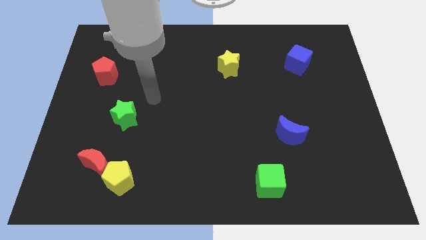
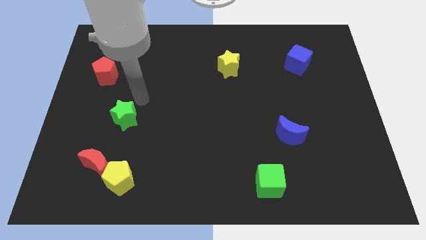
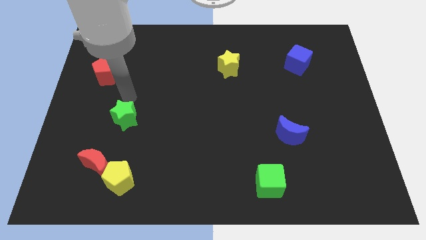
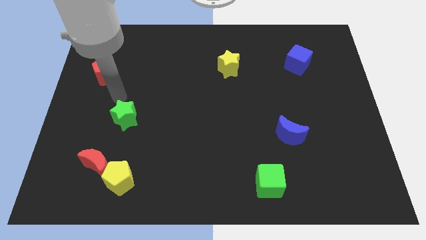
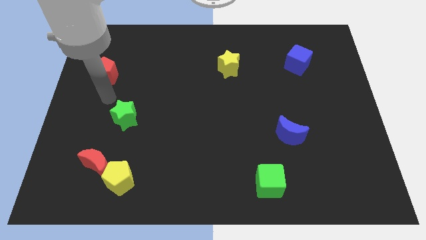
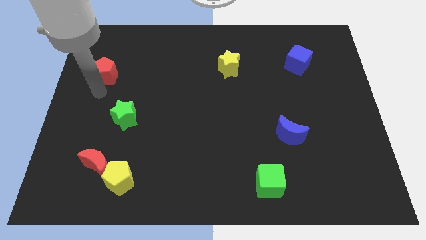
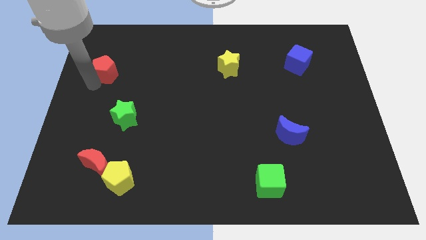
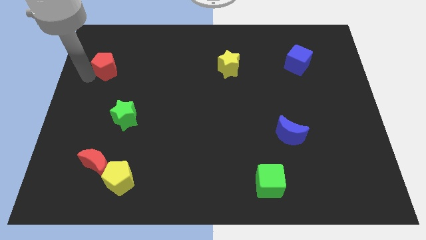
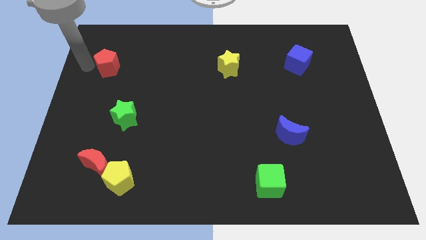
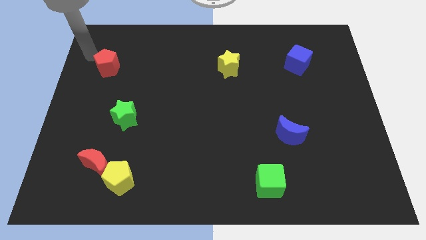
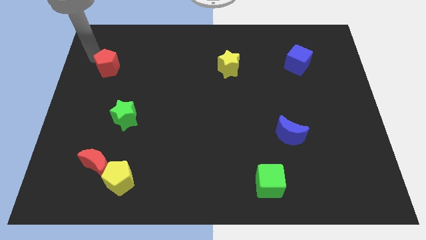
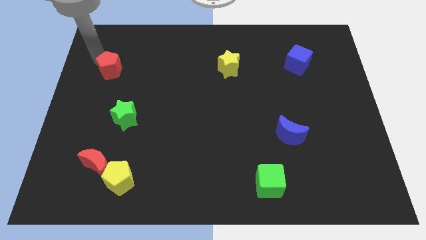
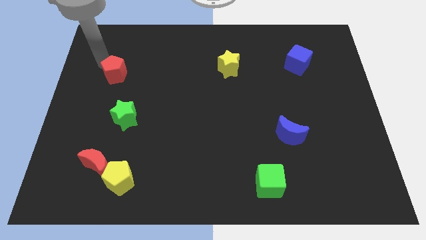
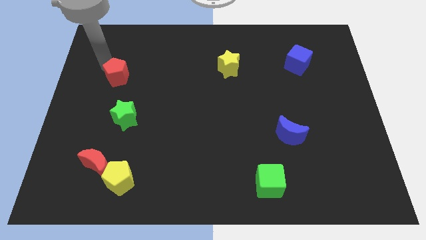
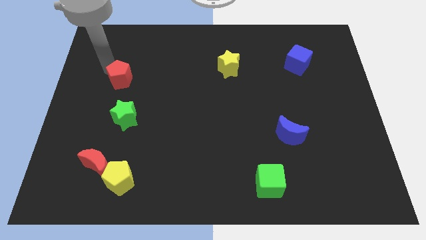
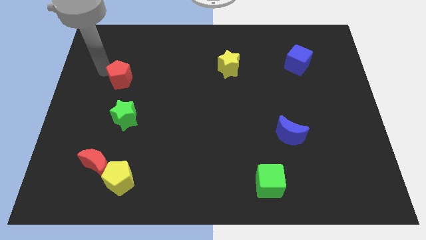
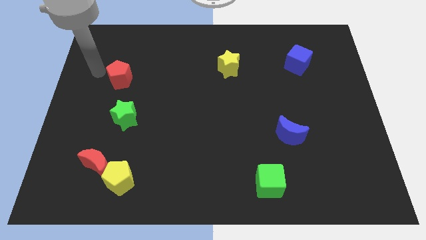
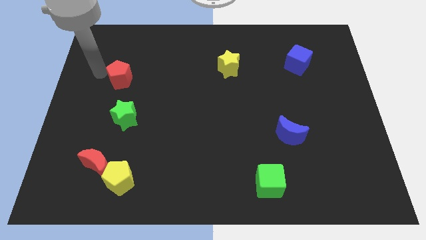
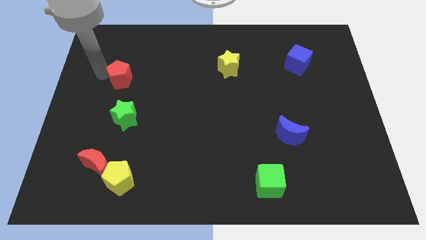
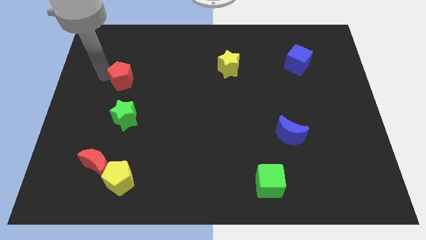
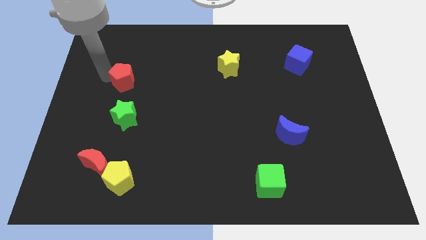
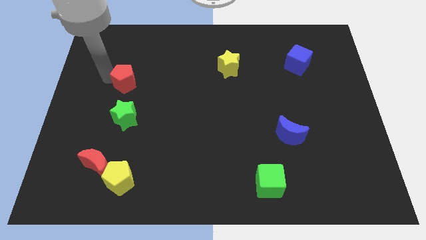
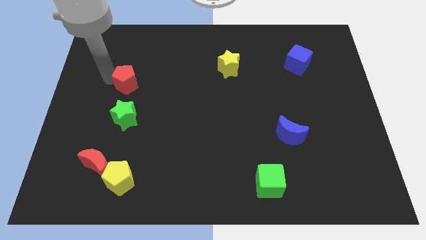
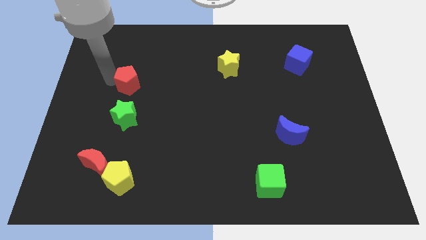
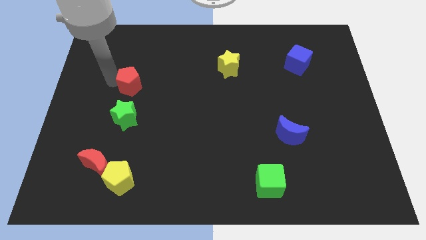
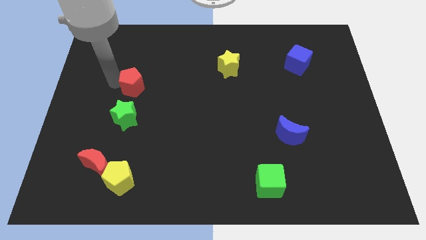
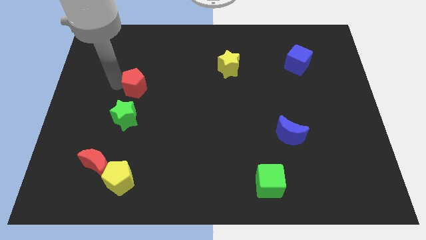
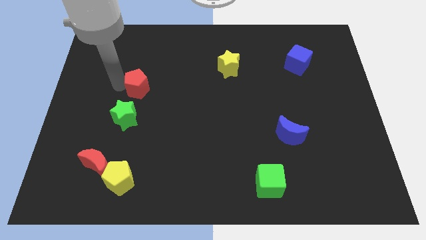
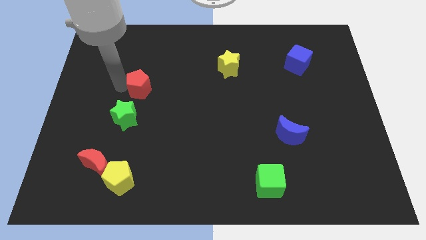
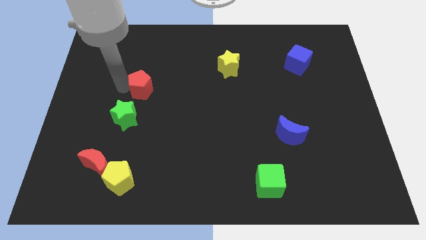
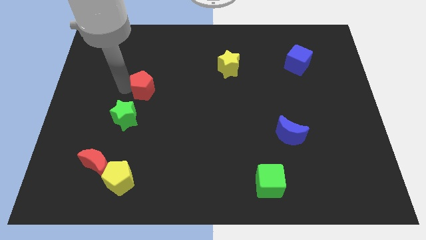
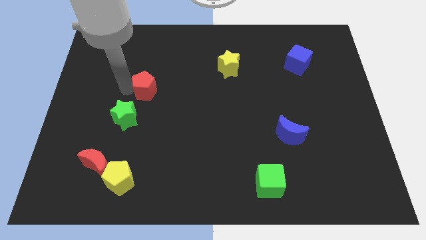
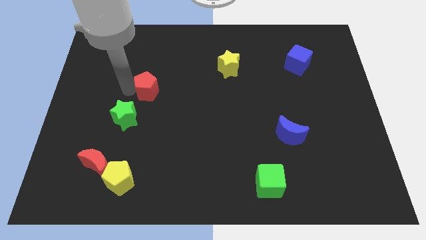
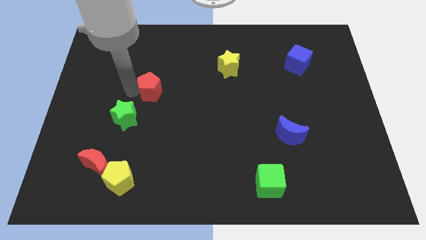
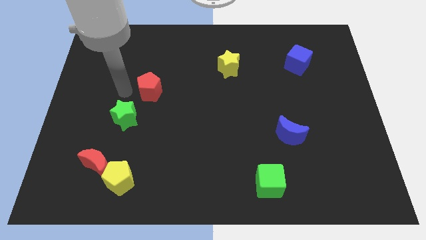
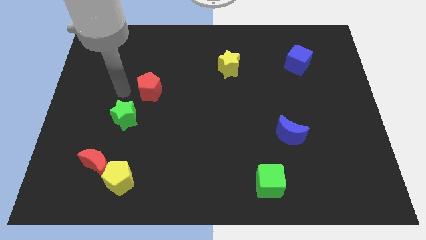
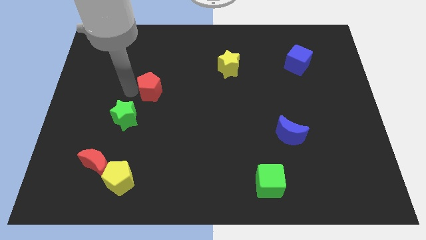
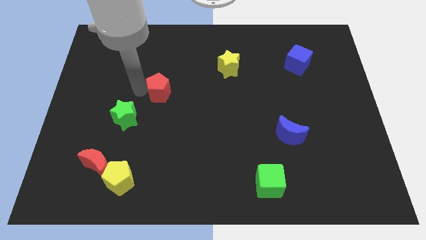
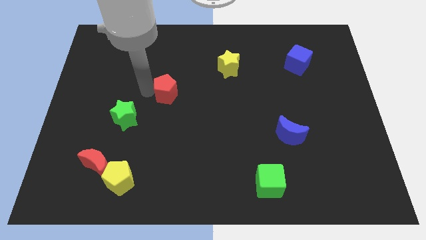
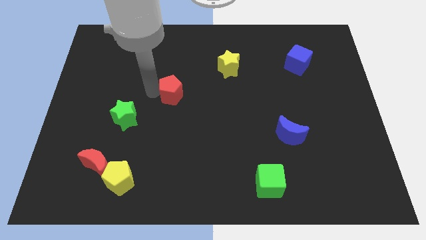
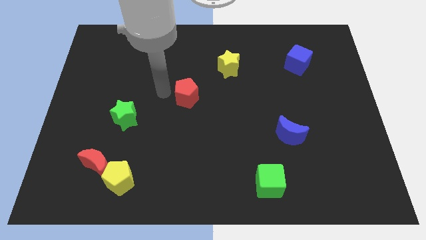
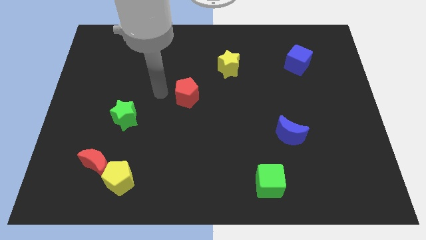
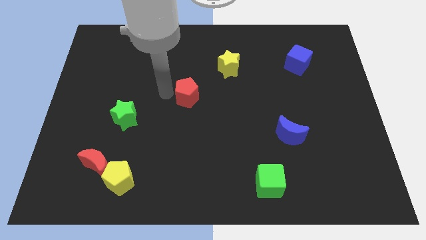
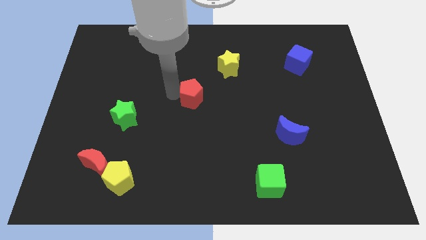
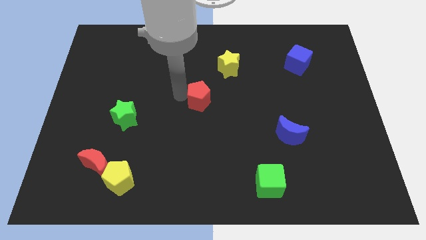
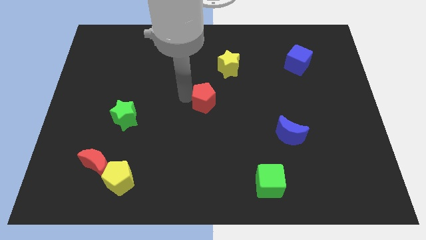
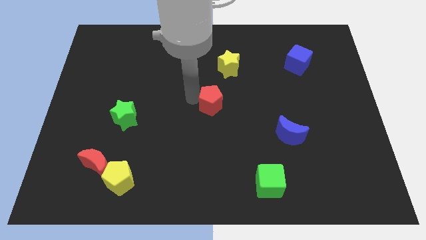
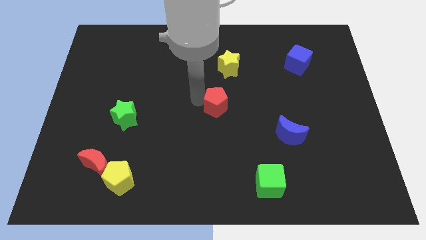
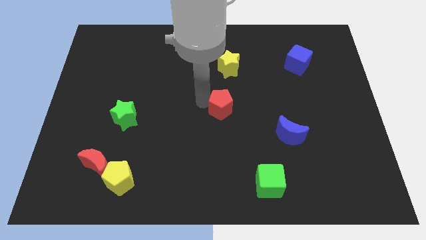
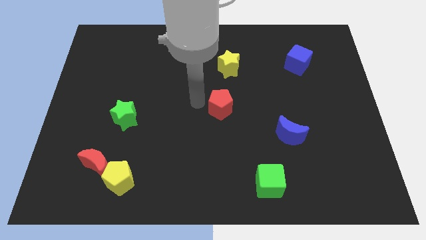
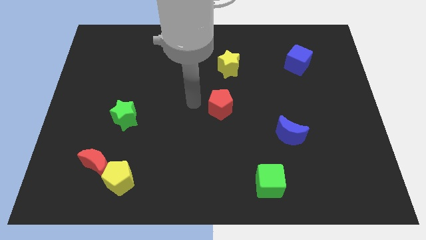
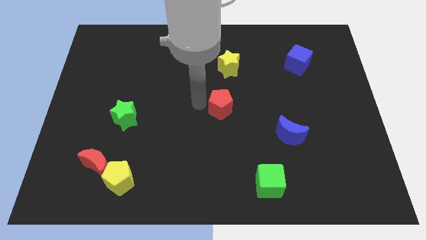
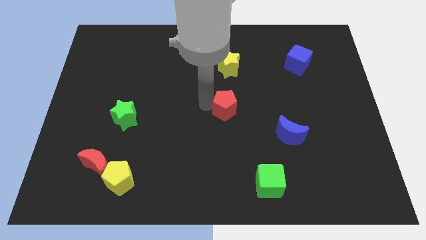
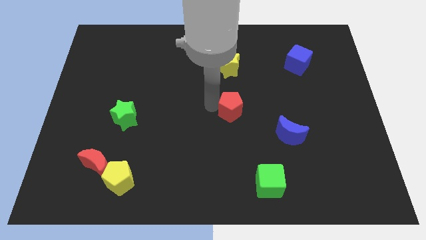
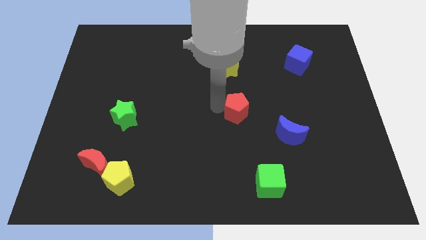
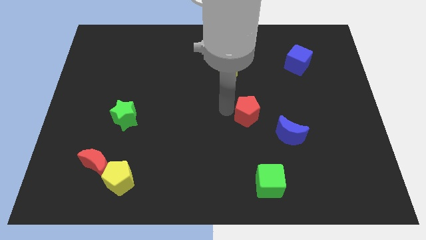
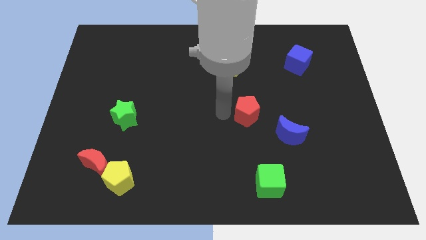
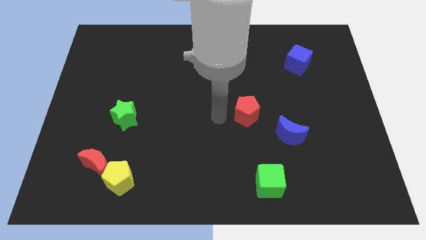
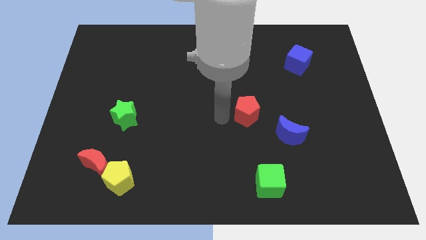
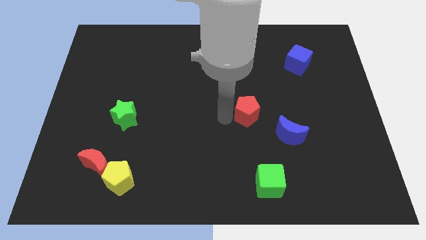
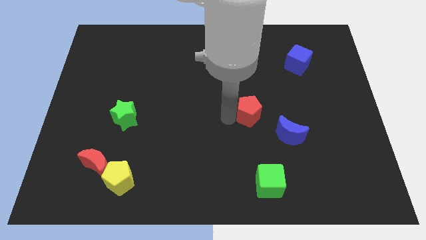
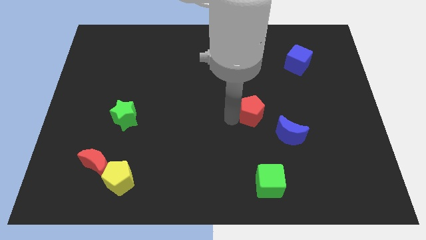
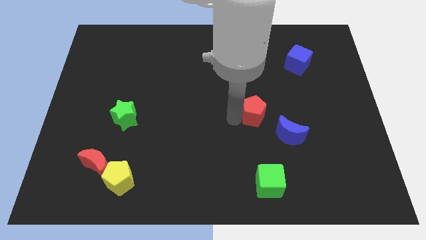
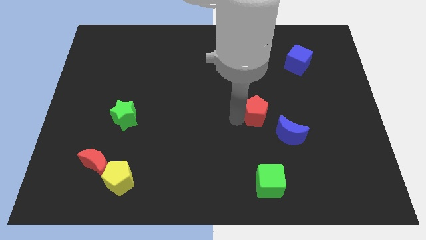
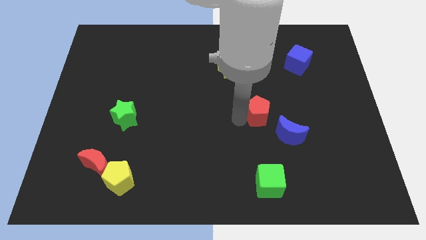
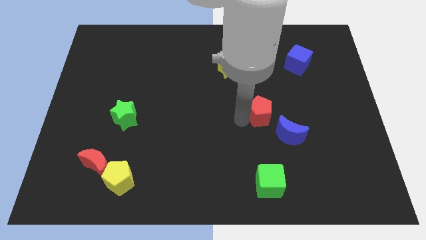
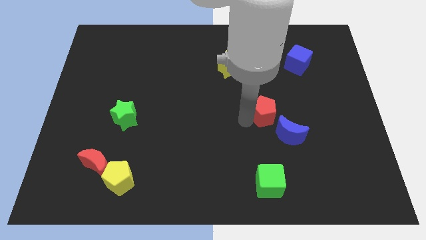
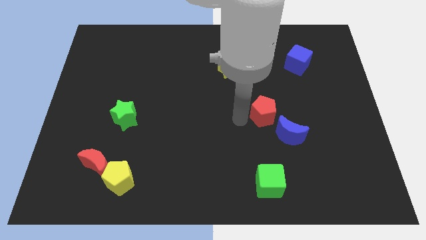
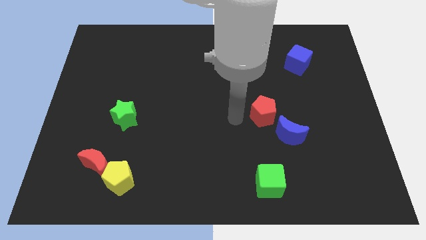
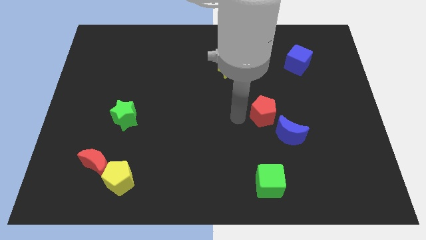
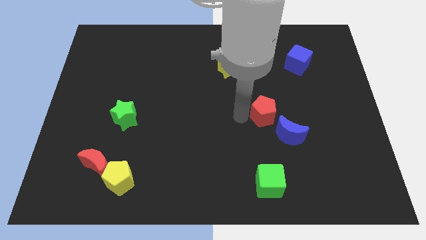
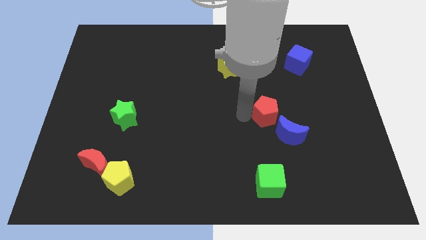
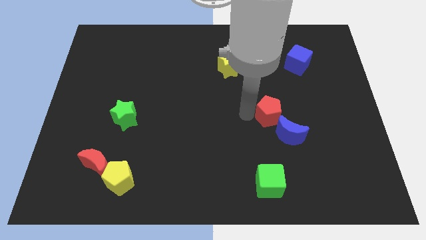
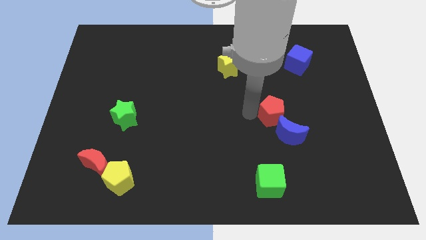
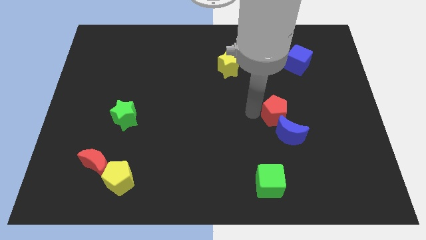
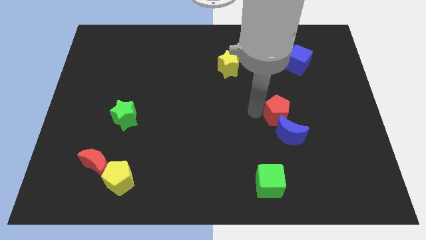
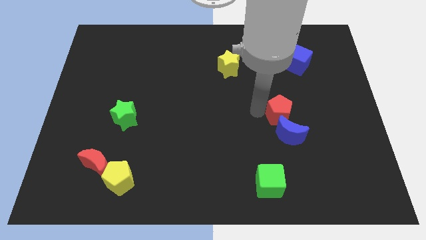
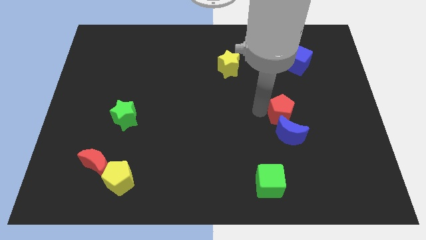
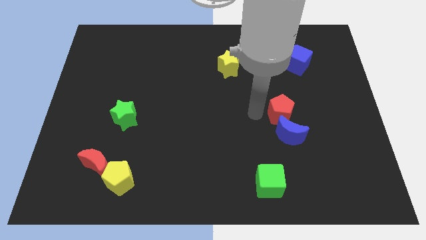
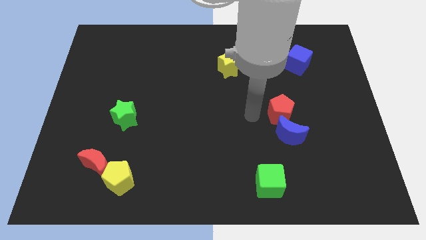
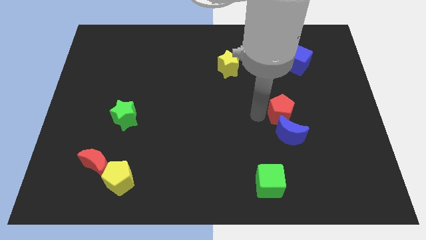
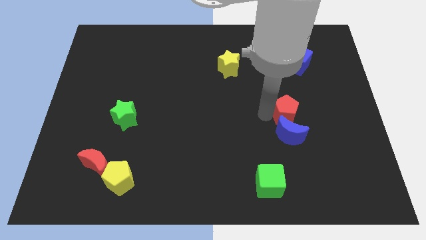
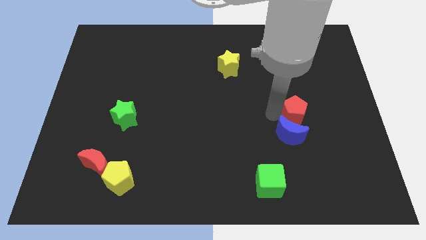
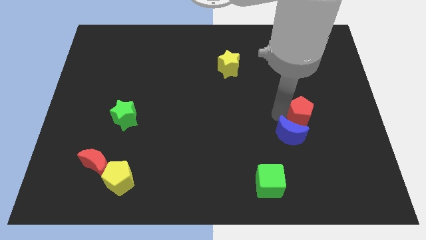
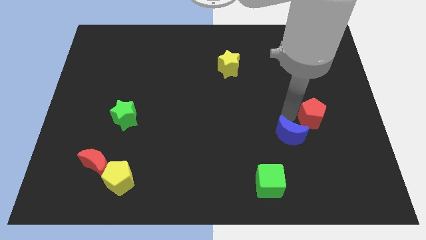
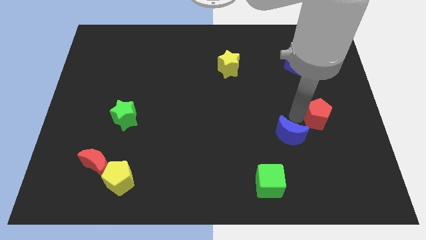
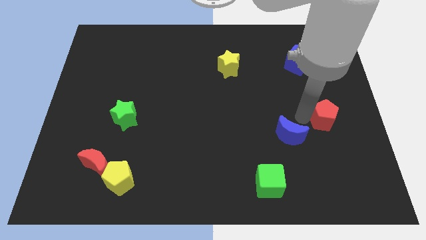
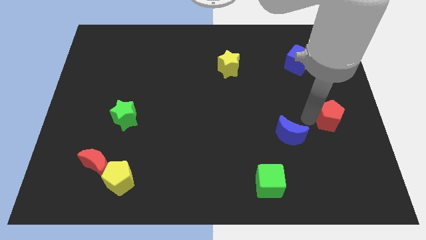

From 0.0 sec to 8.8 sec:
put the red pentagon to the right side of the board
